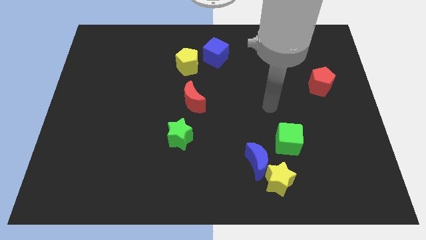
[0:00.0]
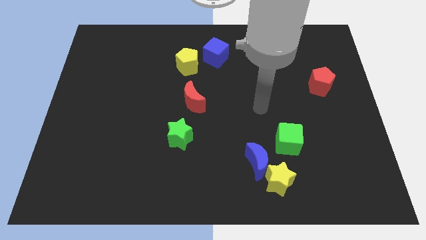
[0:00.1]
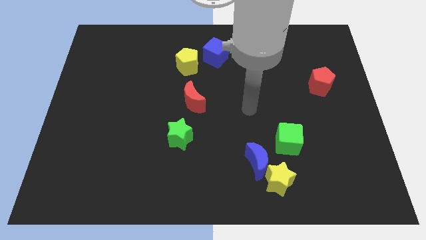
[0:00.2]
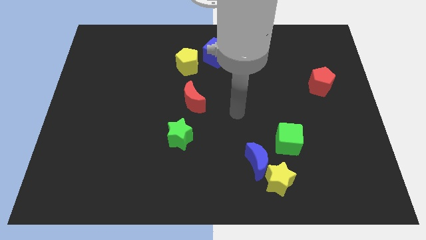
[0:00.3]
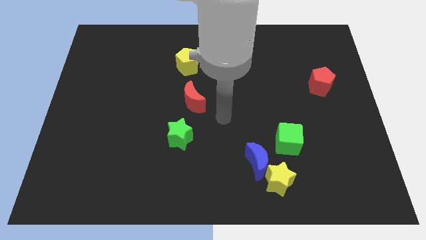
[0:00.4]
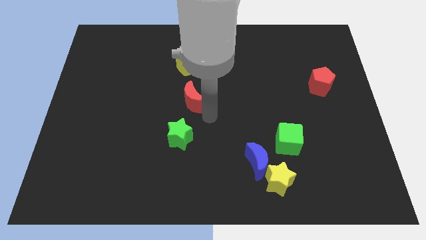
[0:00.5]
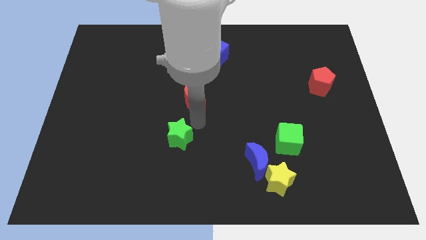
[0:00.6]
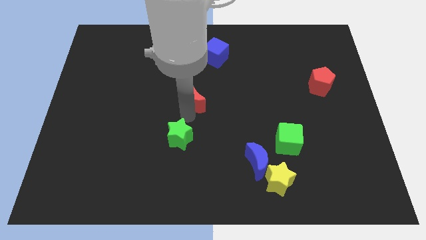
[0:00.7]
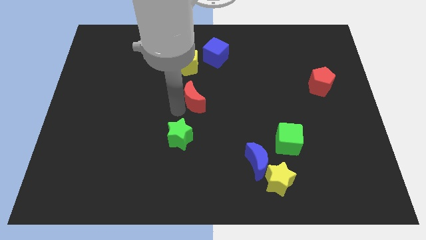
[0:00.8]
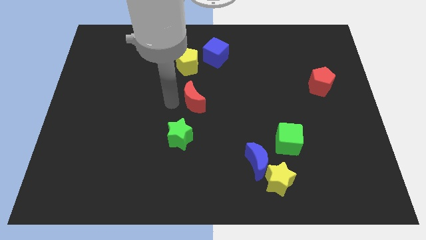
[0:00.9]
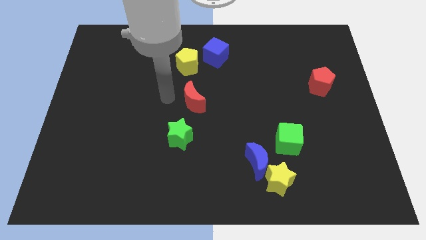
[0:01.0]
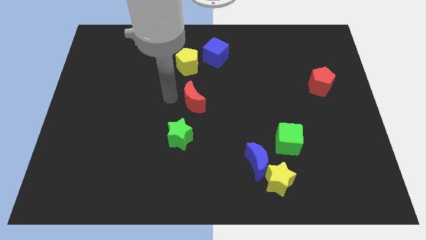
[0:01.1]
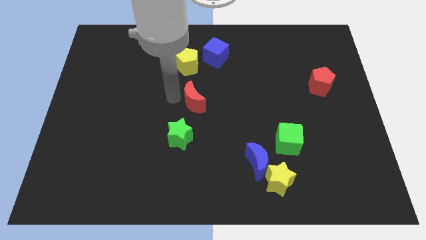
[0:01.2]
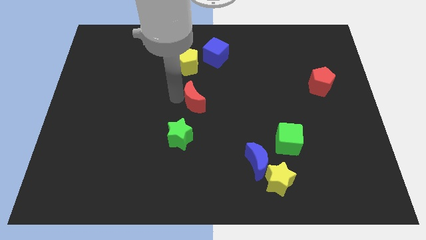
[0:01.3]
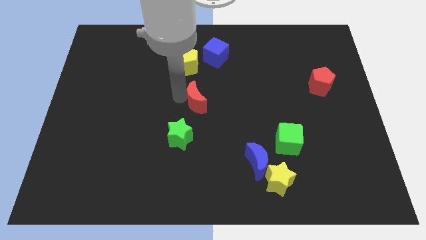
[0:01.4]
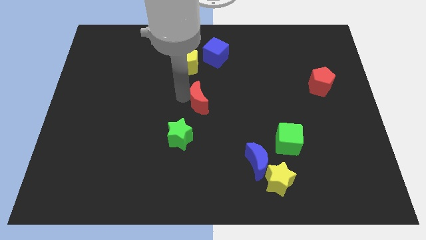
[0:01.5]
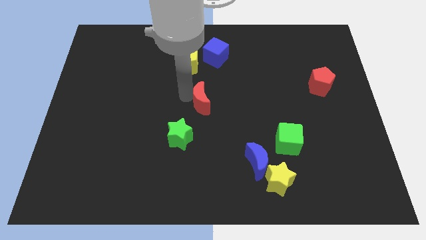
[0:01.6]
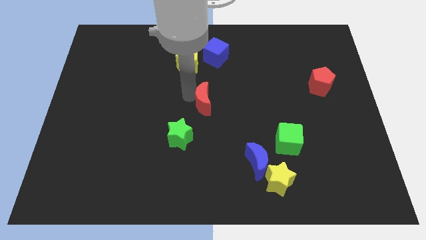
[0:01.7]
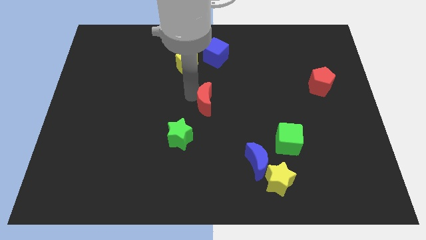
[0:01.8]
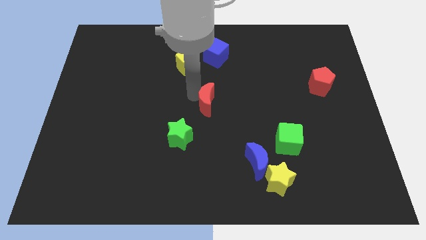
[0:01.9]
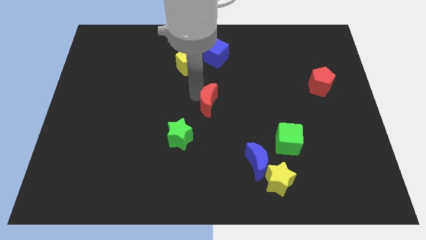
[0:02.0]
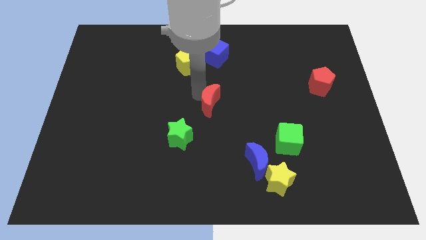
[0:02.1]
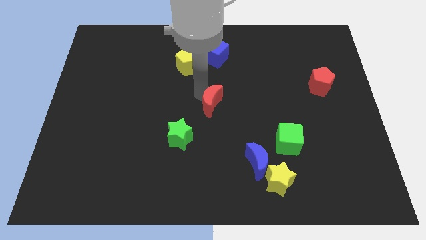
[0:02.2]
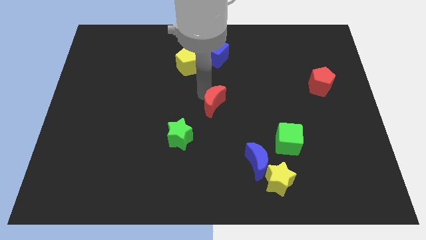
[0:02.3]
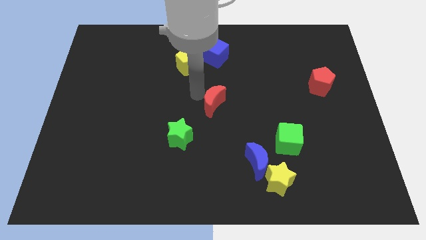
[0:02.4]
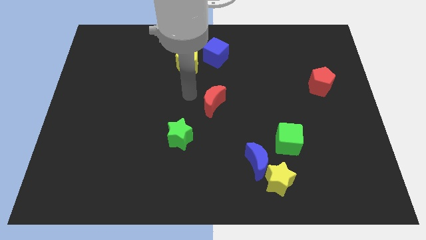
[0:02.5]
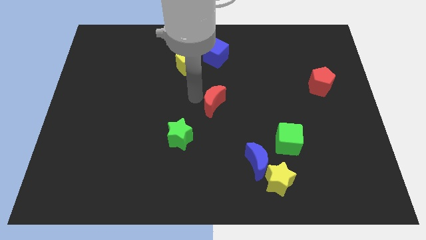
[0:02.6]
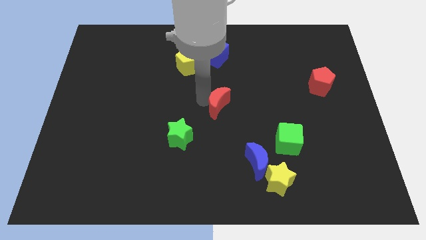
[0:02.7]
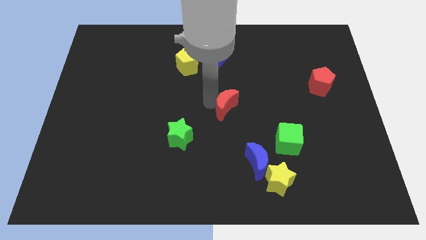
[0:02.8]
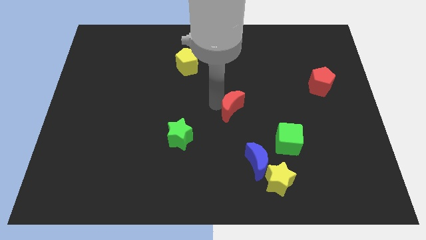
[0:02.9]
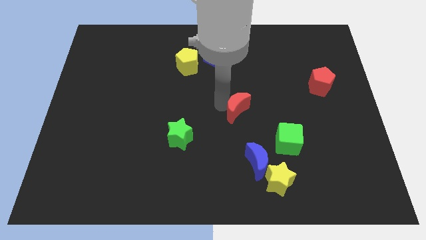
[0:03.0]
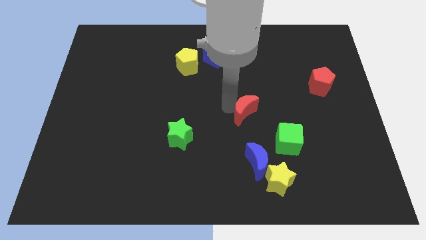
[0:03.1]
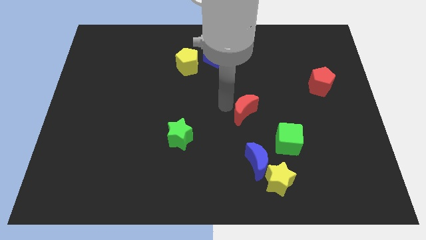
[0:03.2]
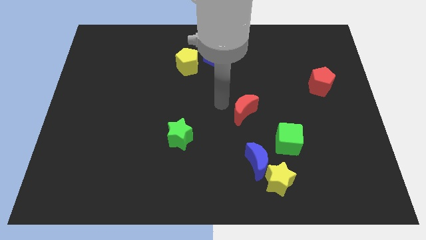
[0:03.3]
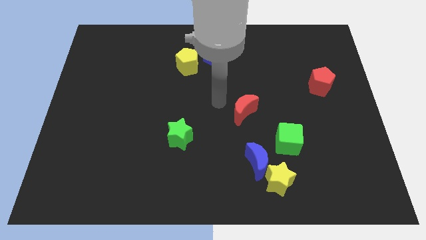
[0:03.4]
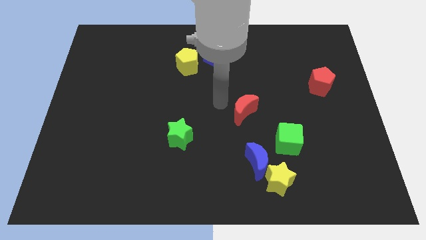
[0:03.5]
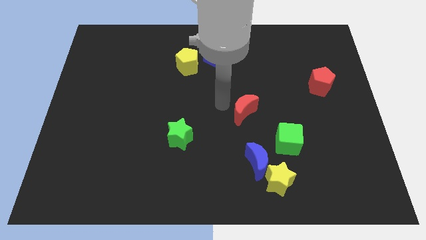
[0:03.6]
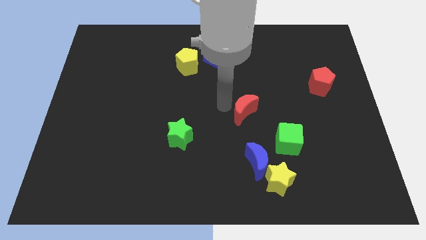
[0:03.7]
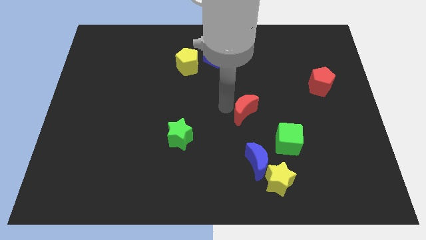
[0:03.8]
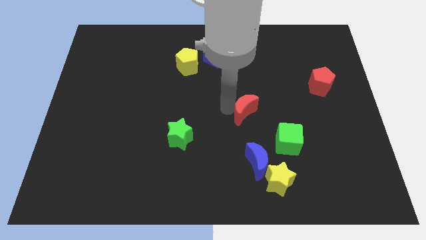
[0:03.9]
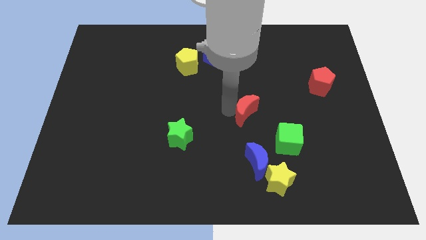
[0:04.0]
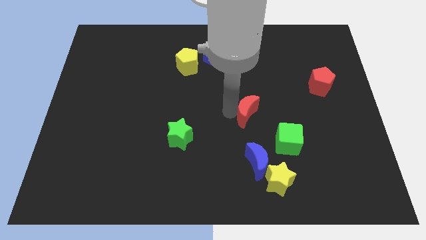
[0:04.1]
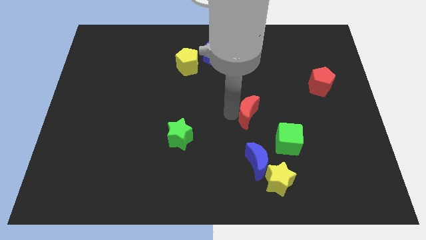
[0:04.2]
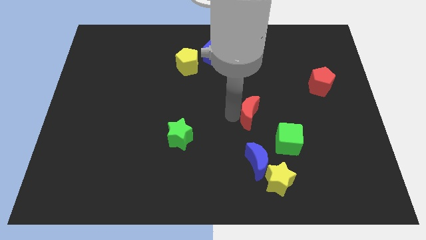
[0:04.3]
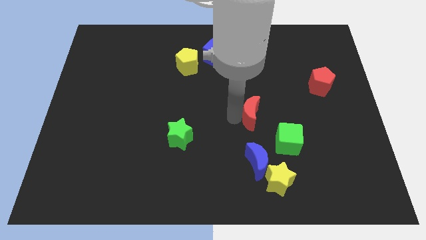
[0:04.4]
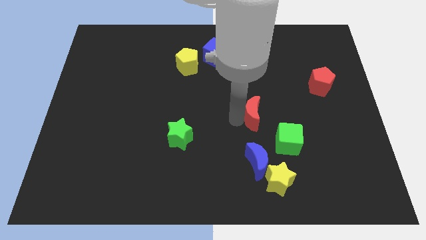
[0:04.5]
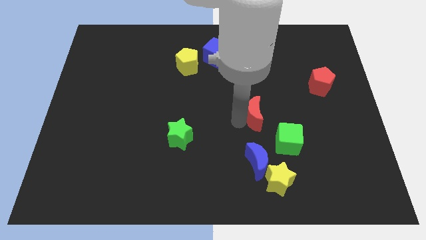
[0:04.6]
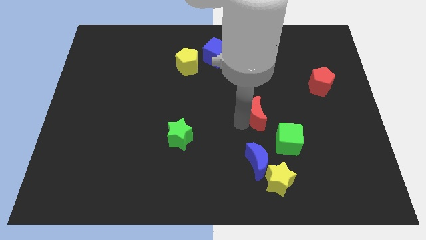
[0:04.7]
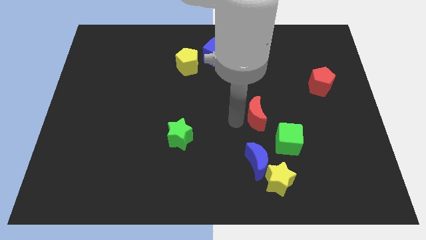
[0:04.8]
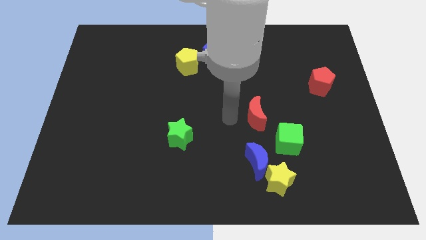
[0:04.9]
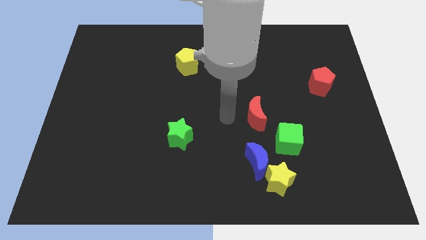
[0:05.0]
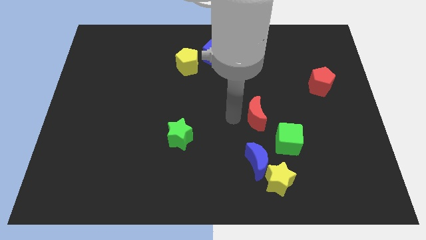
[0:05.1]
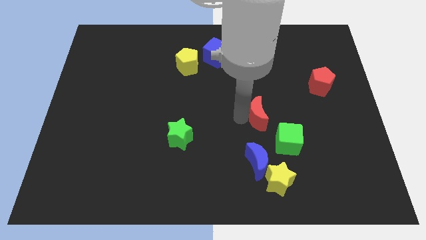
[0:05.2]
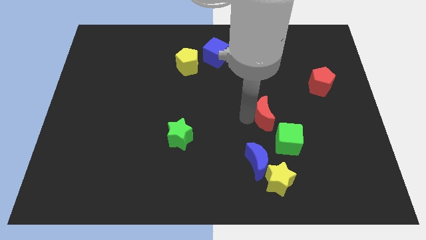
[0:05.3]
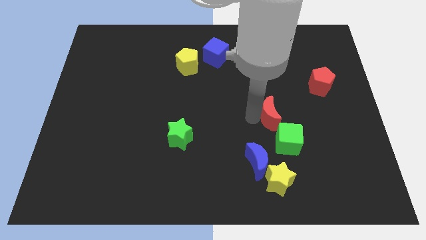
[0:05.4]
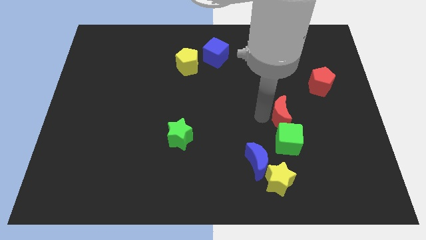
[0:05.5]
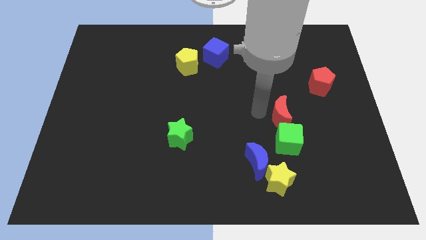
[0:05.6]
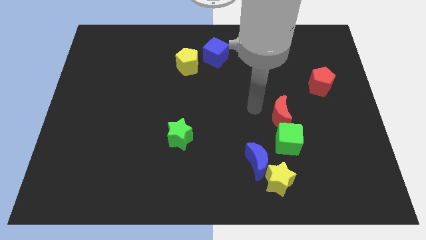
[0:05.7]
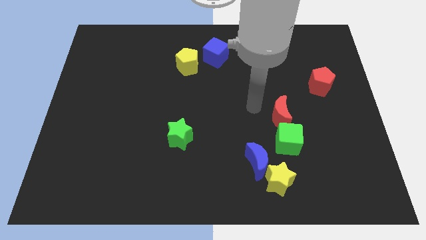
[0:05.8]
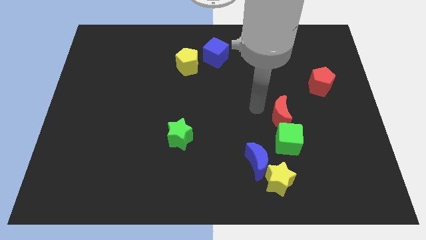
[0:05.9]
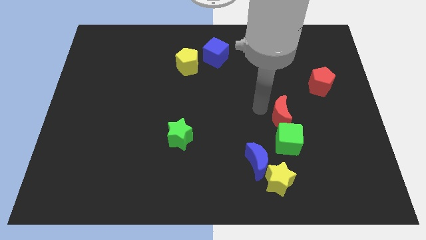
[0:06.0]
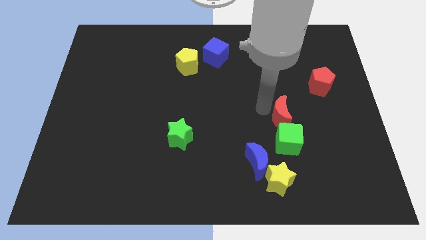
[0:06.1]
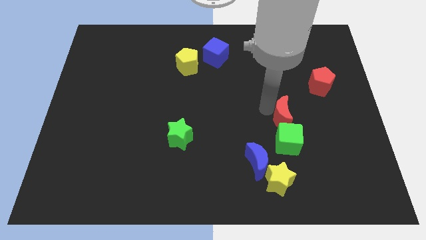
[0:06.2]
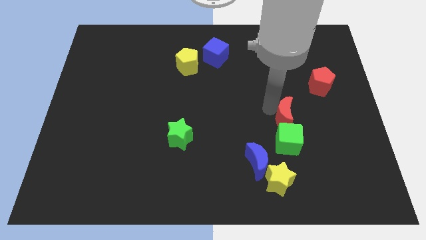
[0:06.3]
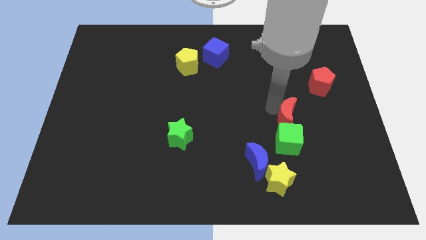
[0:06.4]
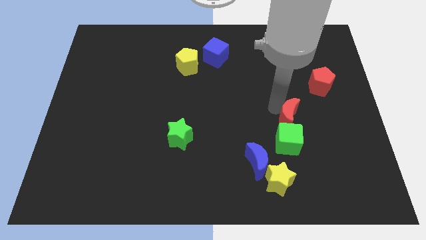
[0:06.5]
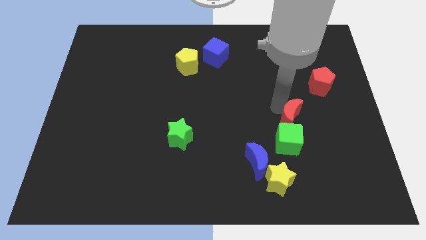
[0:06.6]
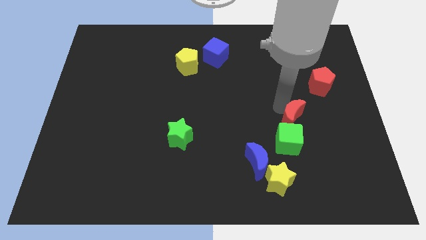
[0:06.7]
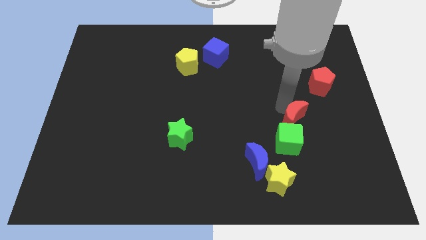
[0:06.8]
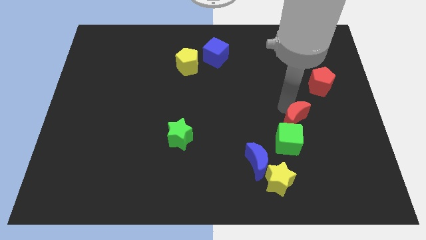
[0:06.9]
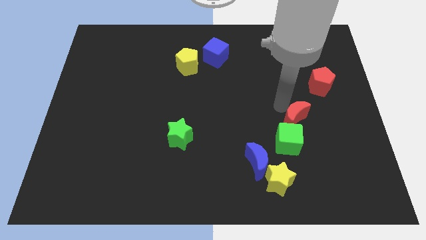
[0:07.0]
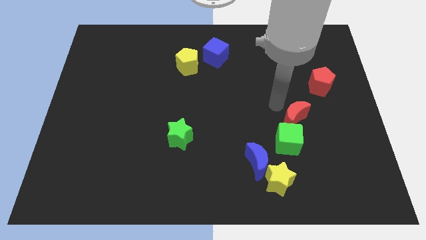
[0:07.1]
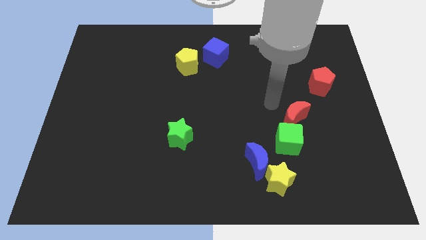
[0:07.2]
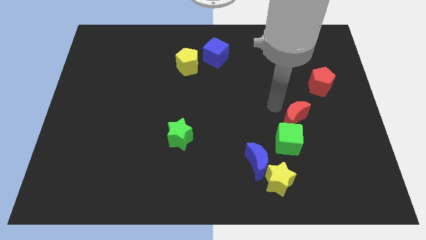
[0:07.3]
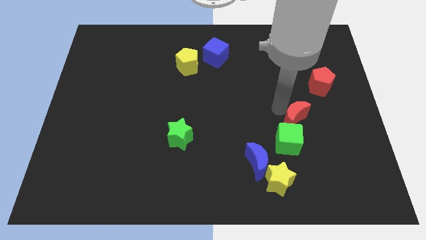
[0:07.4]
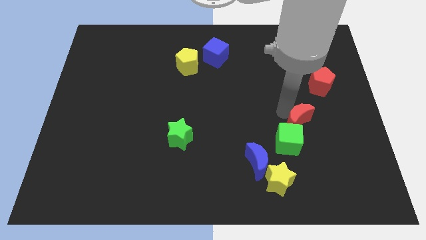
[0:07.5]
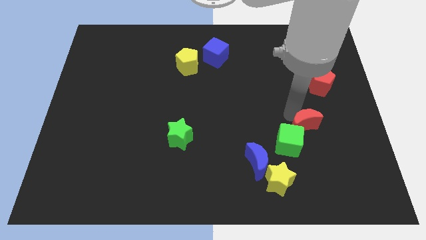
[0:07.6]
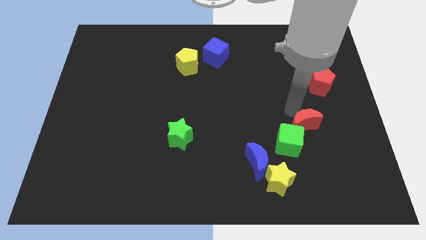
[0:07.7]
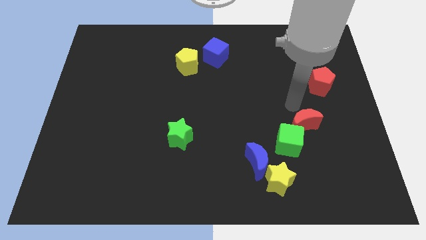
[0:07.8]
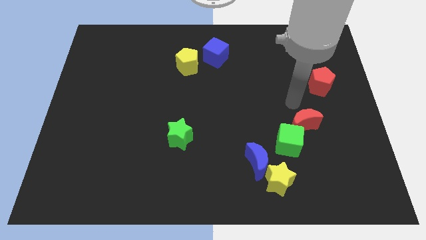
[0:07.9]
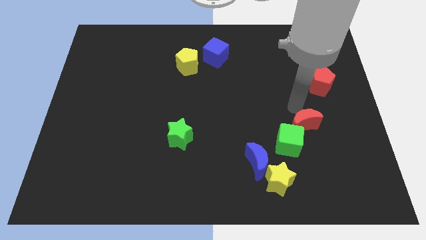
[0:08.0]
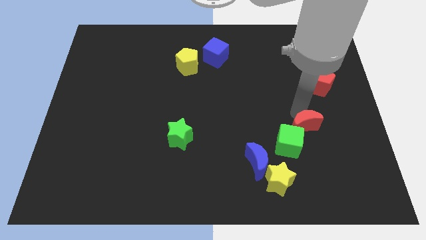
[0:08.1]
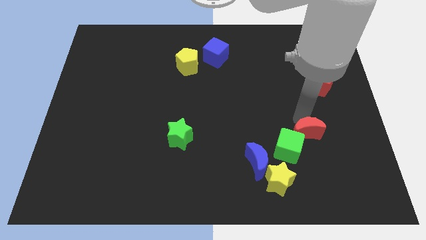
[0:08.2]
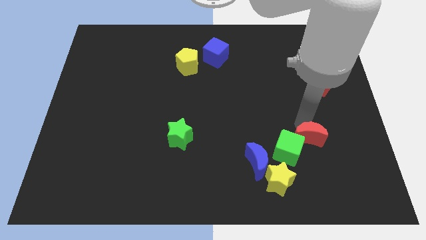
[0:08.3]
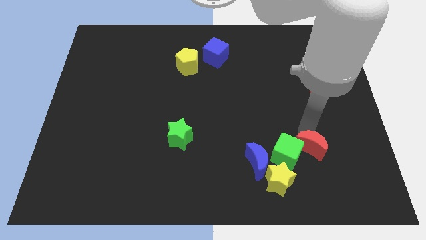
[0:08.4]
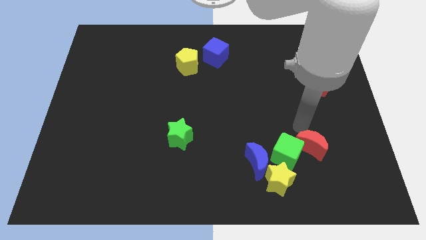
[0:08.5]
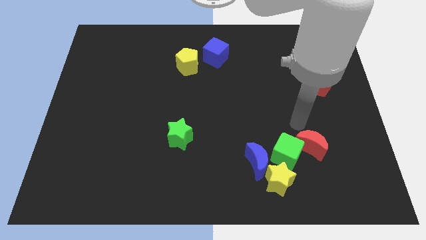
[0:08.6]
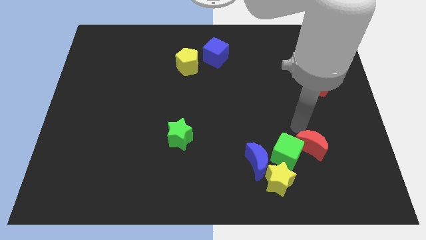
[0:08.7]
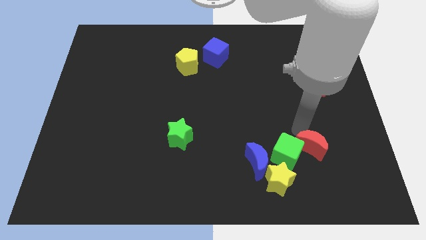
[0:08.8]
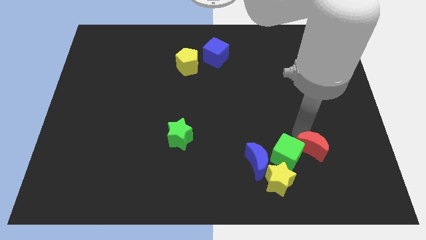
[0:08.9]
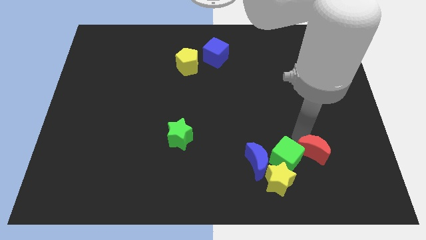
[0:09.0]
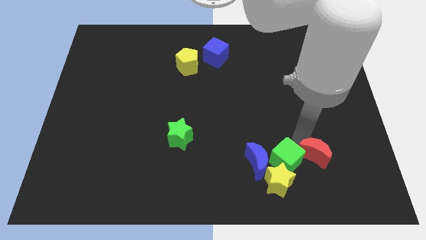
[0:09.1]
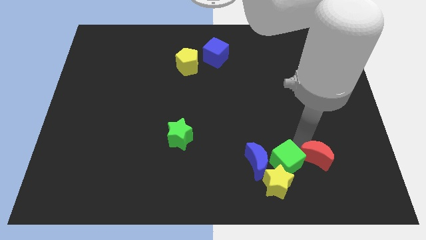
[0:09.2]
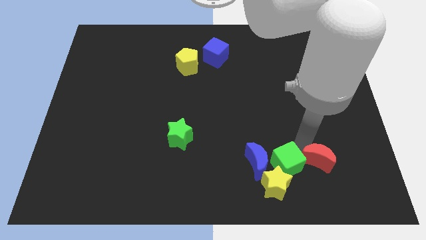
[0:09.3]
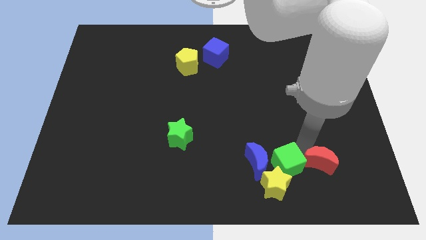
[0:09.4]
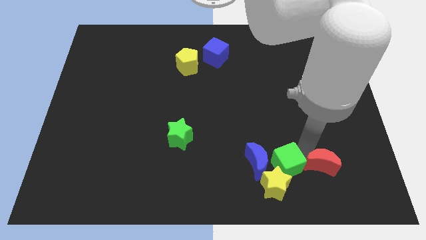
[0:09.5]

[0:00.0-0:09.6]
slide the red moon to the right of the yellow star
